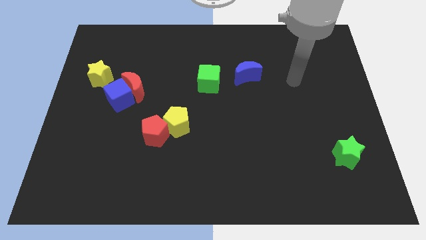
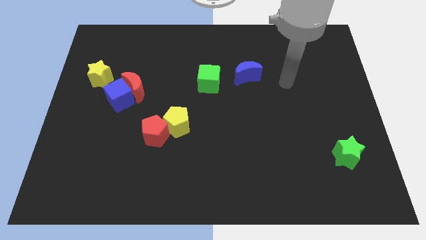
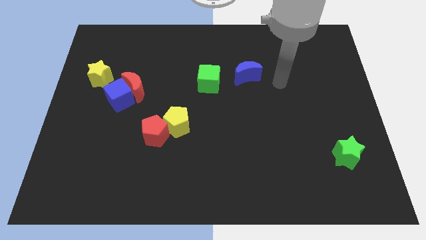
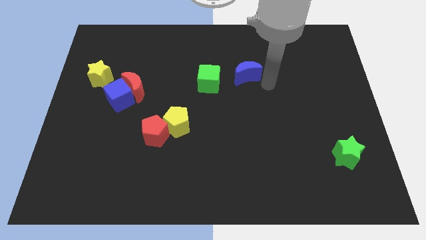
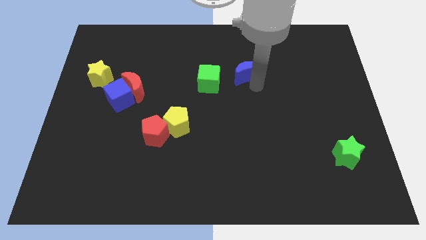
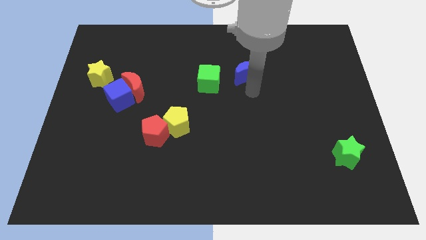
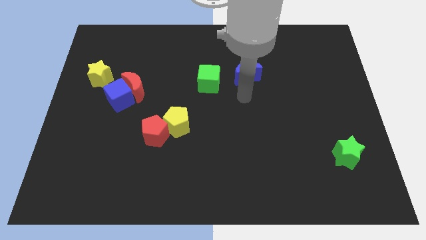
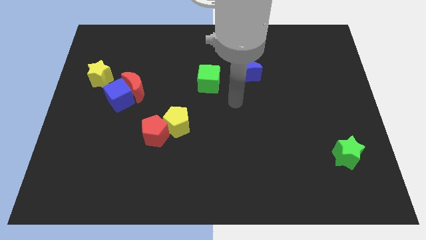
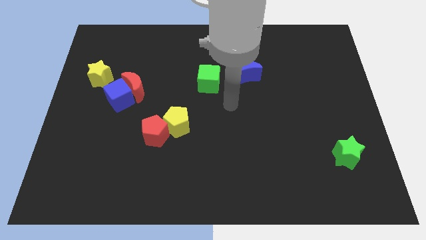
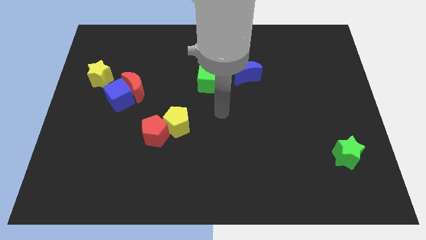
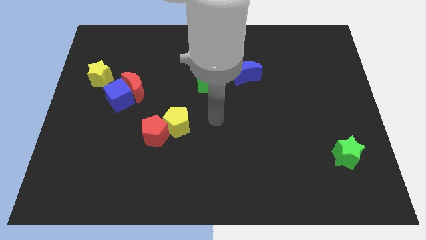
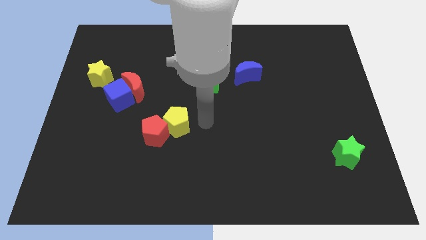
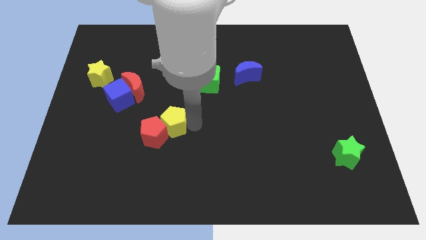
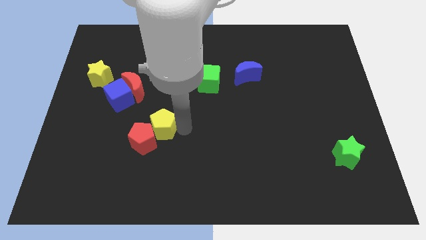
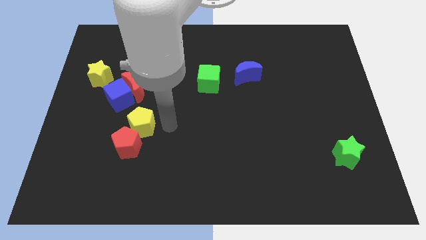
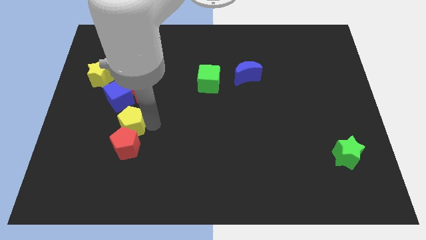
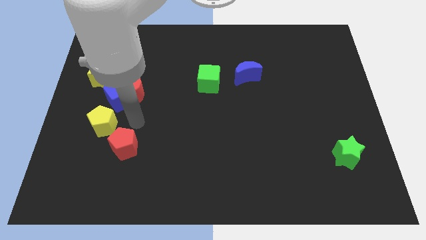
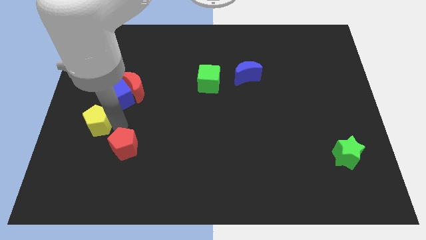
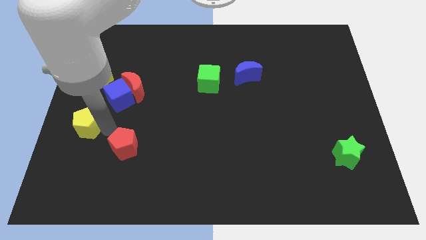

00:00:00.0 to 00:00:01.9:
pull the red pentagon apart from the yellow pentagon

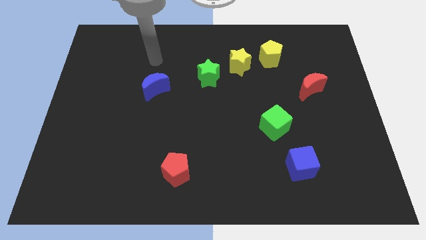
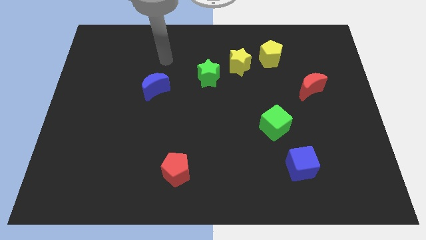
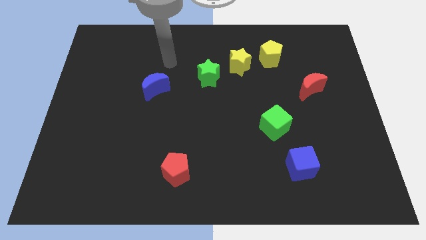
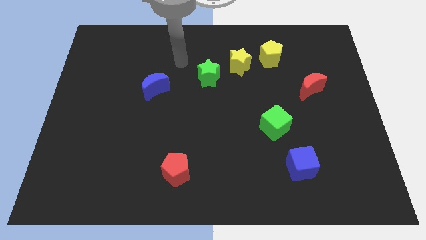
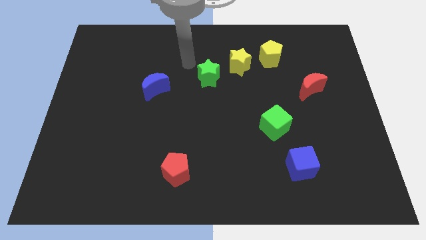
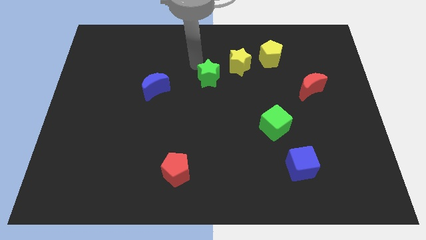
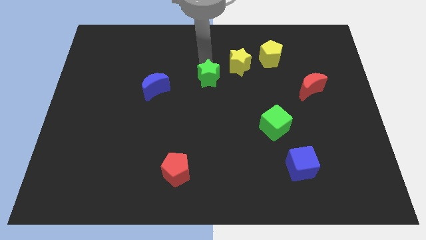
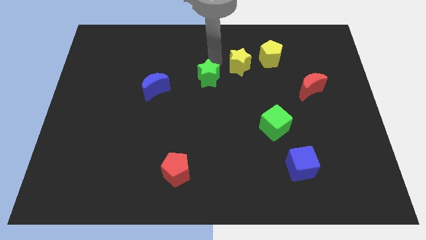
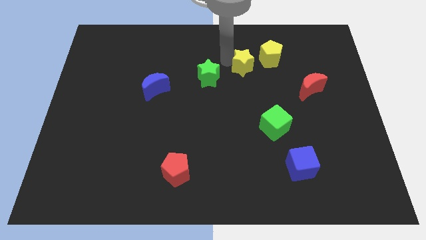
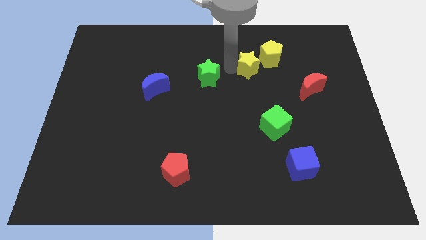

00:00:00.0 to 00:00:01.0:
move the green star away from the yellow star

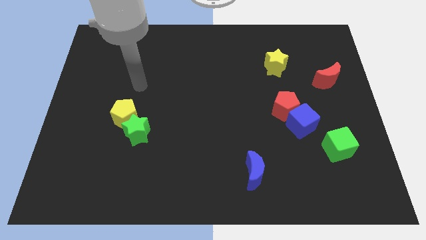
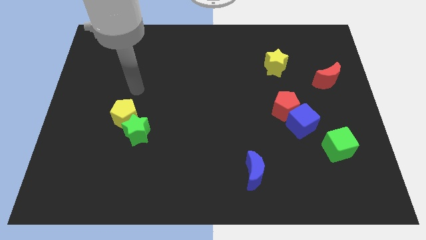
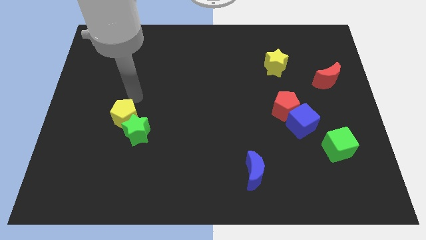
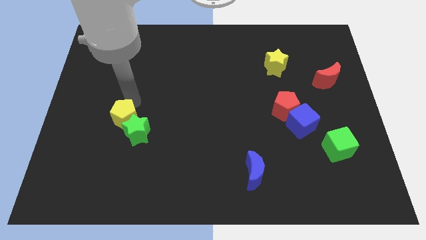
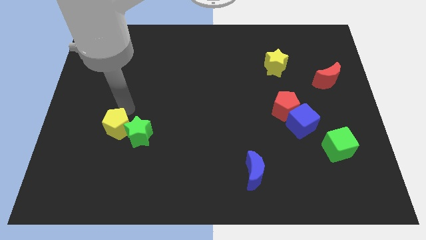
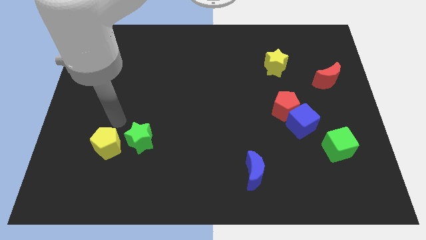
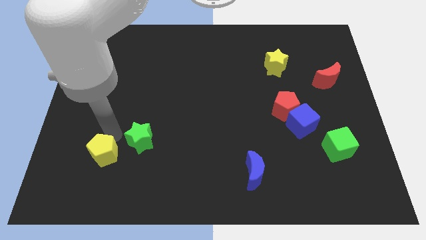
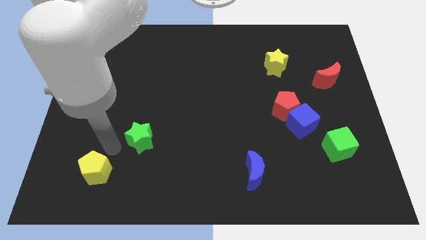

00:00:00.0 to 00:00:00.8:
pull the green star apart from the yellow pentagon

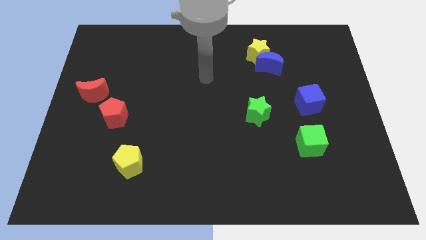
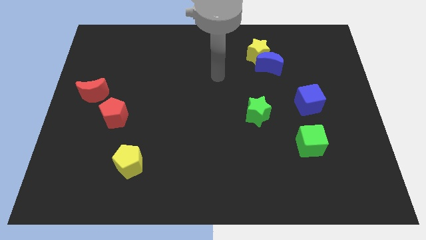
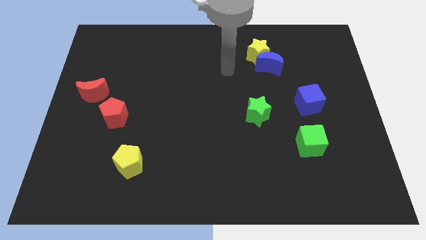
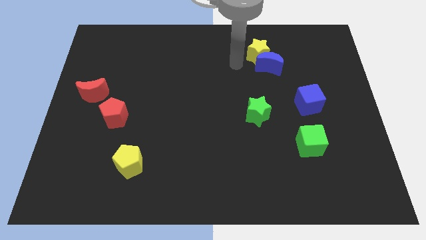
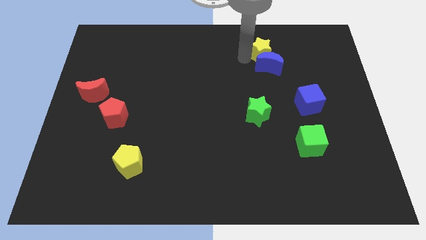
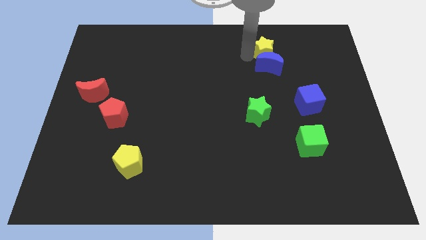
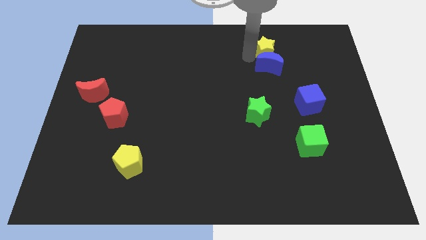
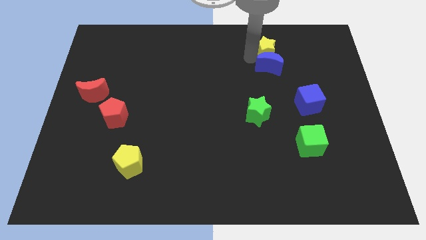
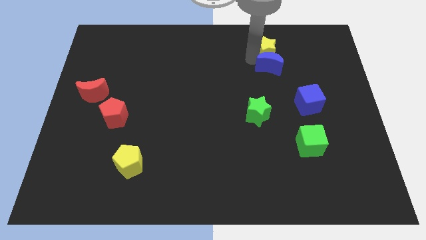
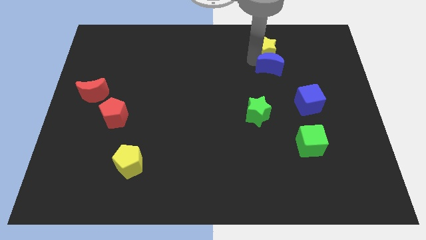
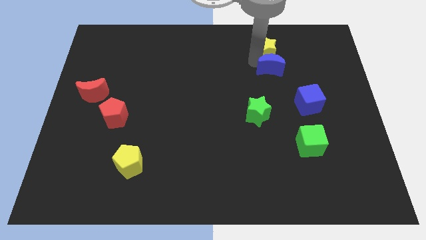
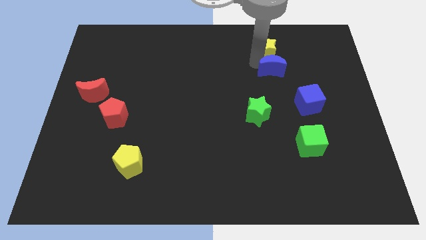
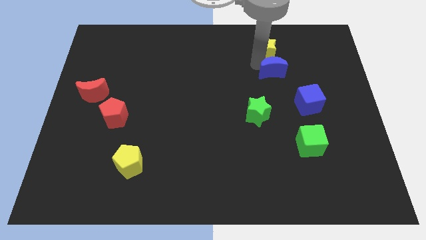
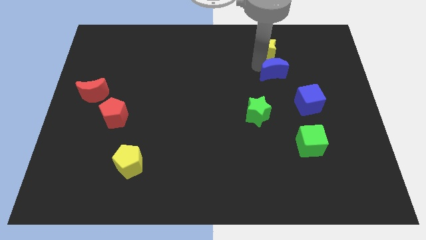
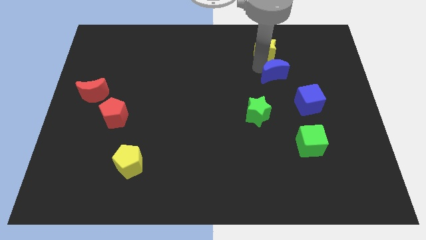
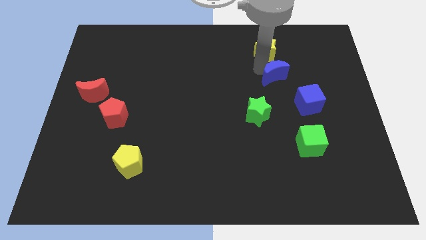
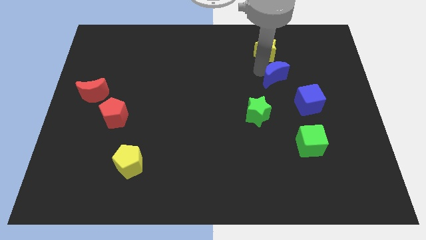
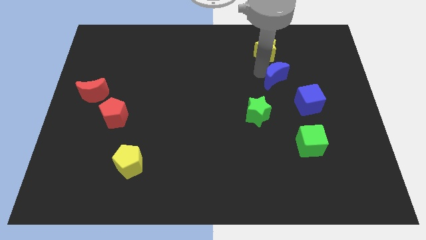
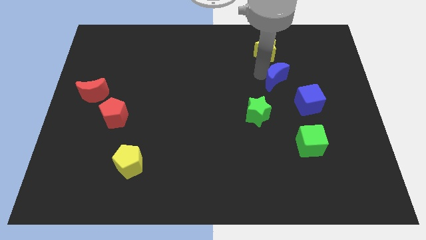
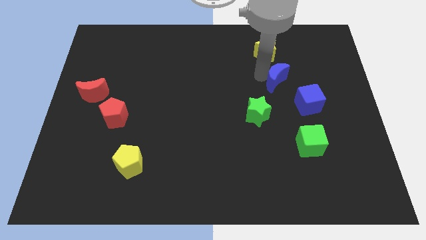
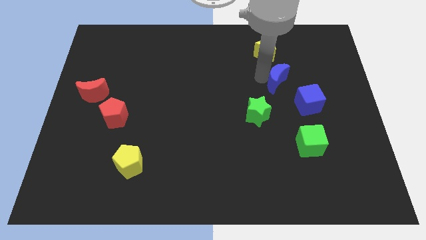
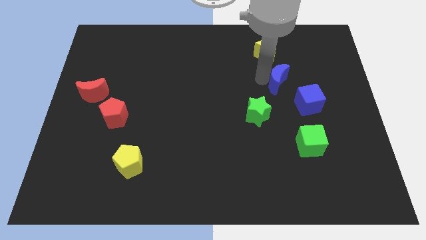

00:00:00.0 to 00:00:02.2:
move the blue moon away from the yellow star

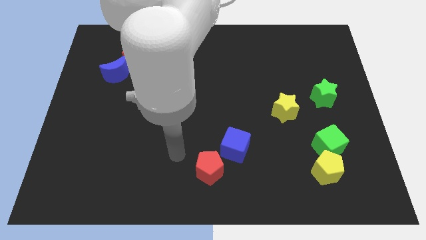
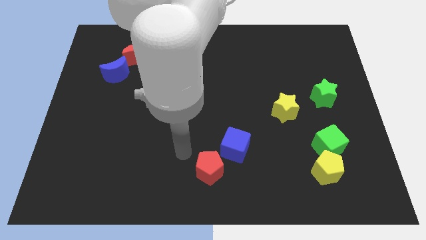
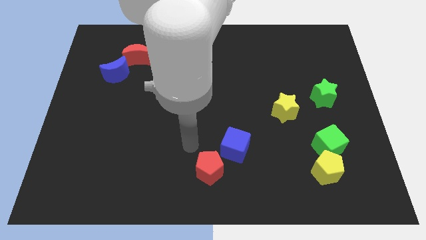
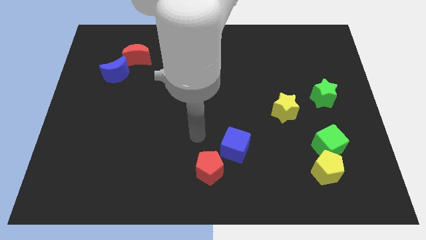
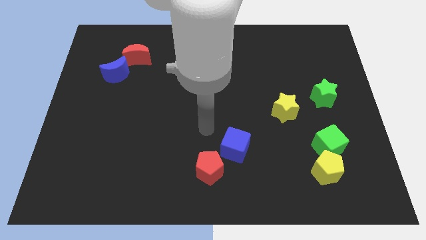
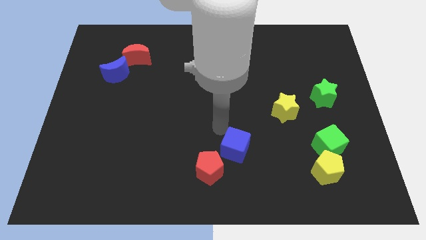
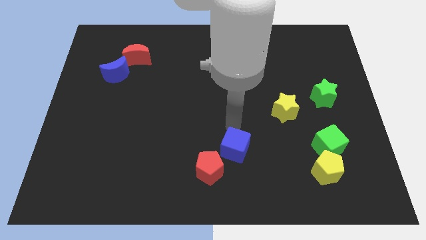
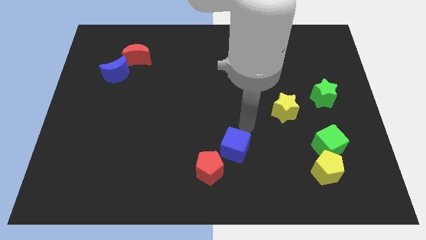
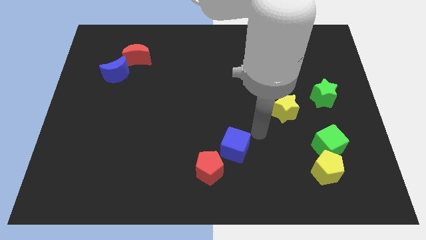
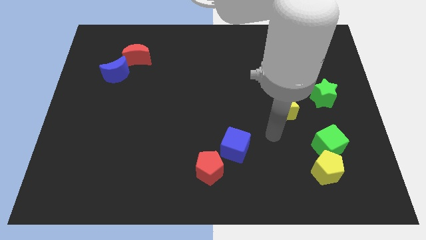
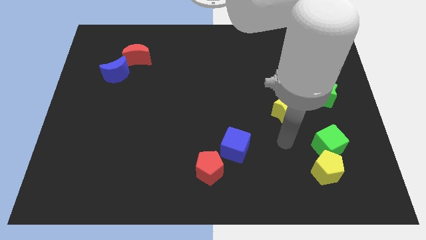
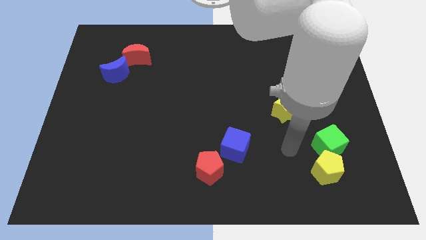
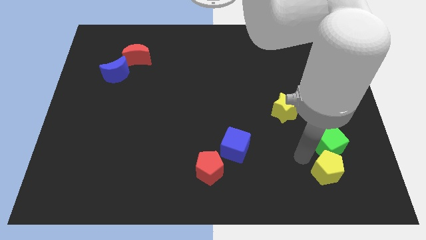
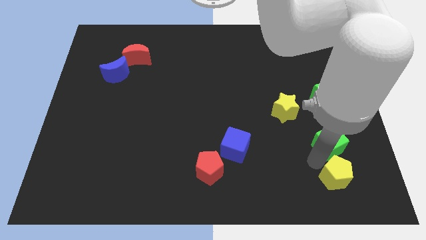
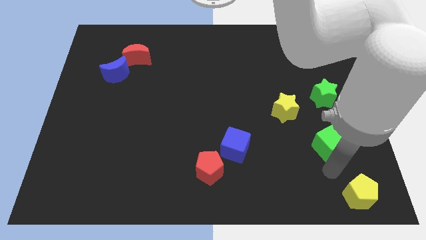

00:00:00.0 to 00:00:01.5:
move the green cube away from the yellow pentagon

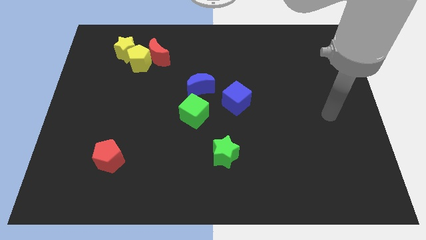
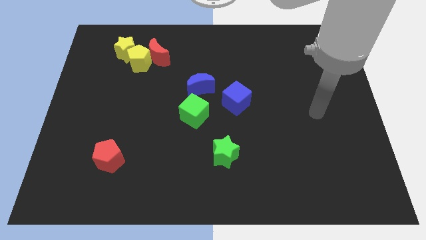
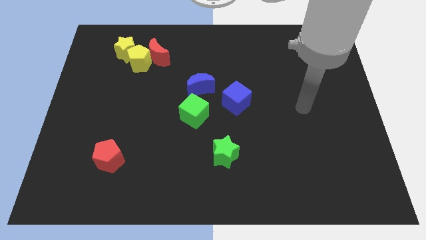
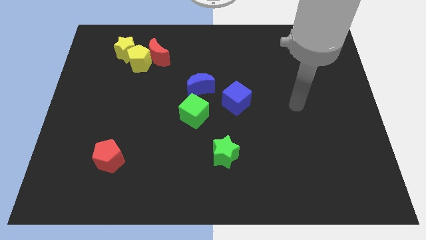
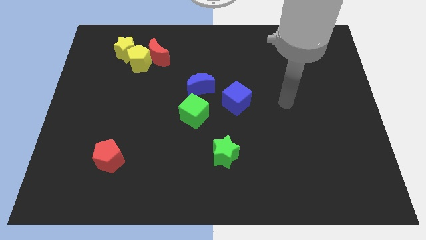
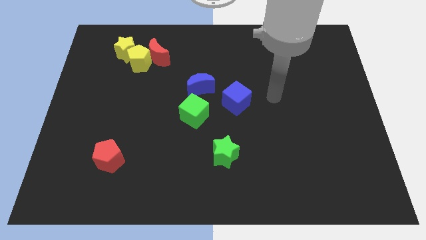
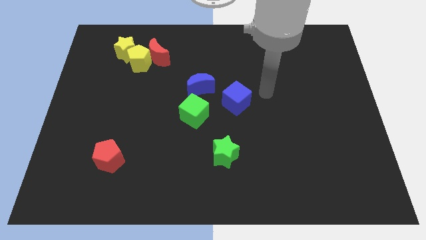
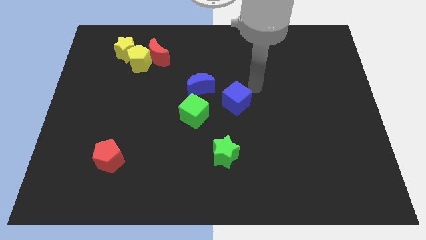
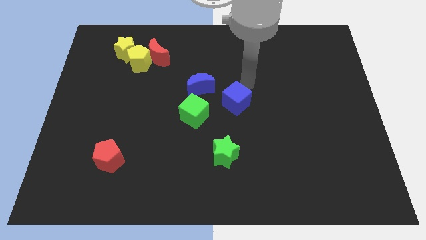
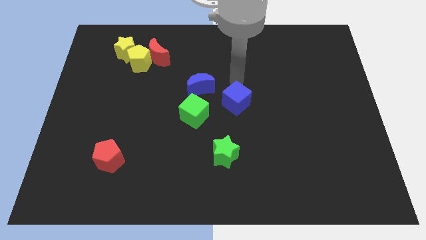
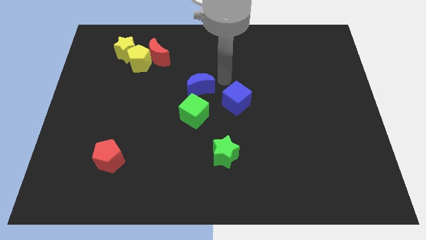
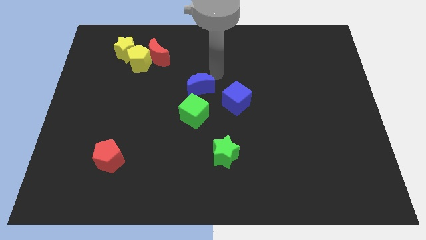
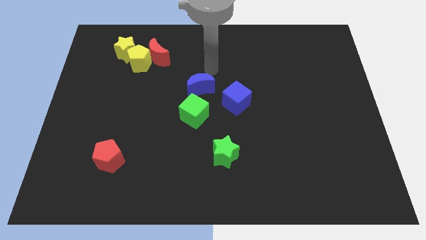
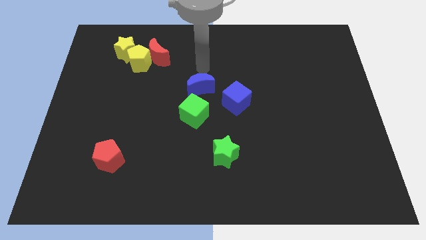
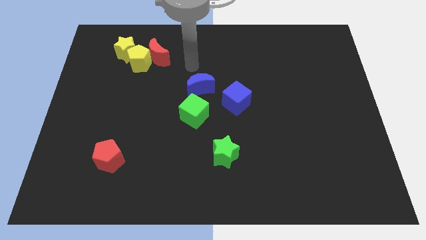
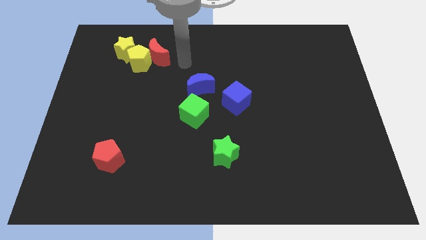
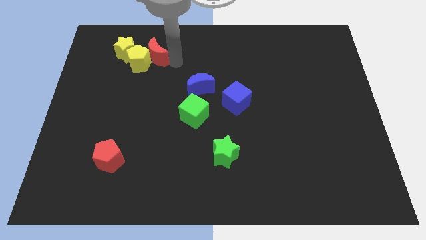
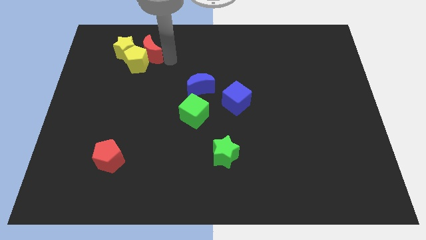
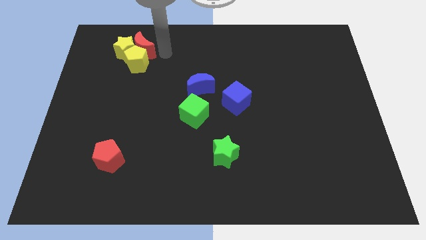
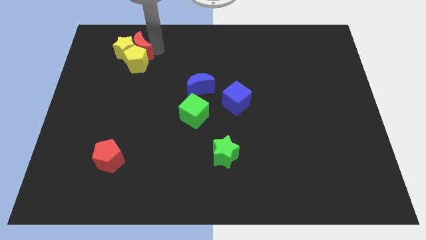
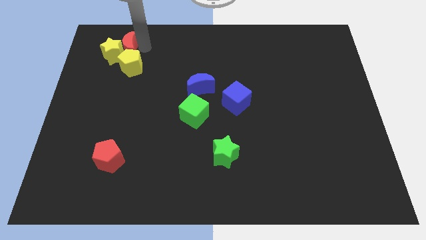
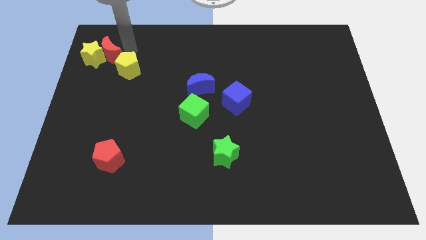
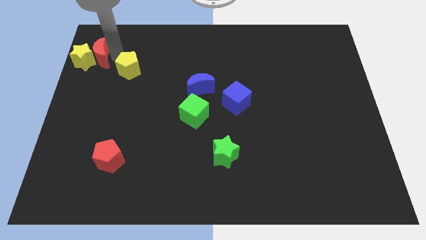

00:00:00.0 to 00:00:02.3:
move the yellow pentagon away from the red moon and yellow star
